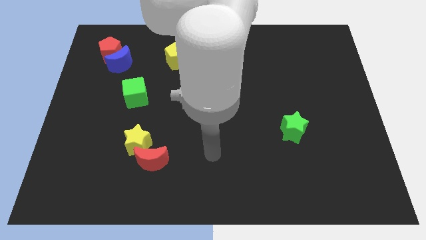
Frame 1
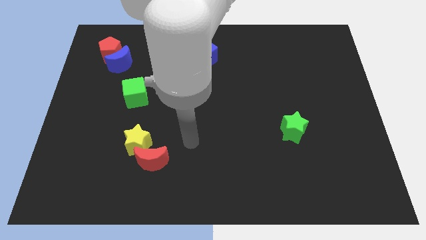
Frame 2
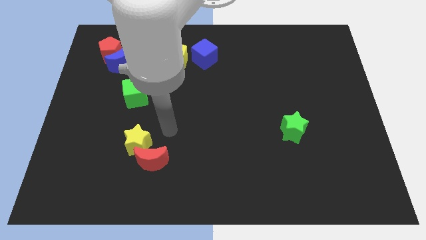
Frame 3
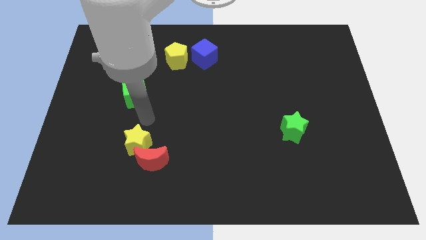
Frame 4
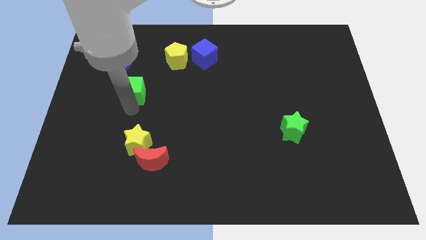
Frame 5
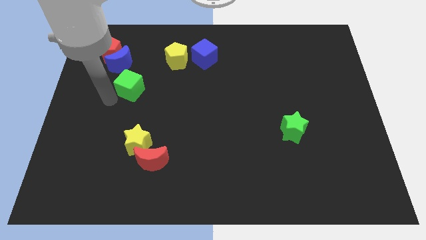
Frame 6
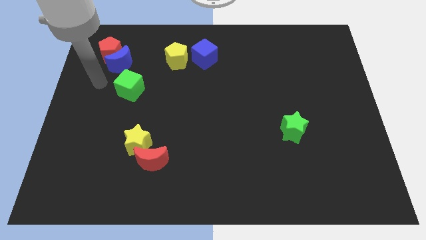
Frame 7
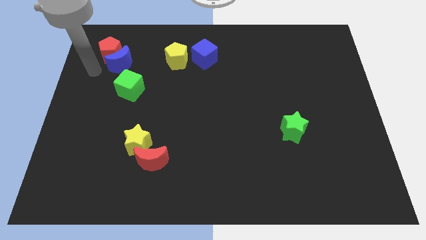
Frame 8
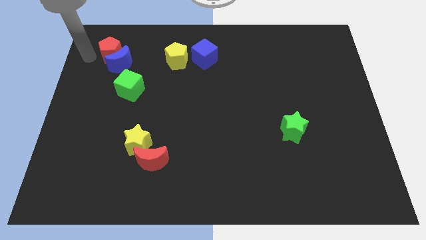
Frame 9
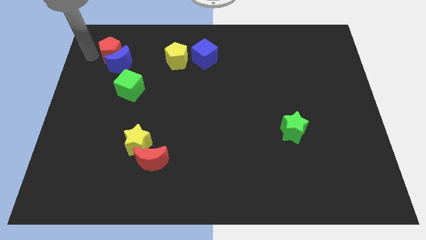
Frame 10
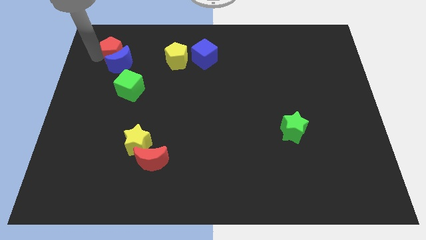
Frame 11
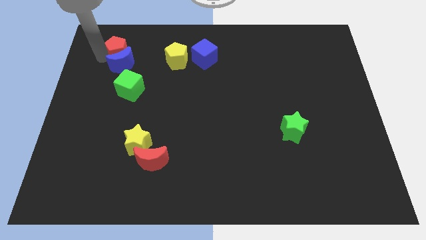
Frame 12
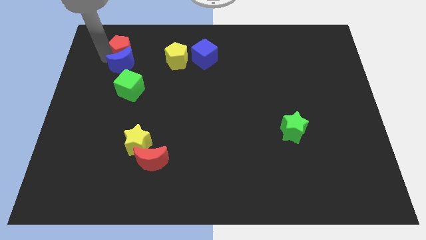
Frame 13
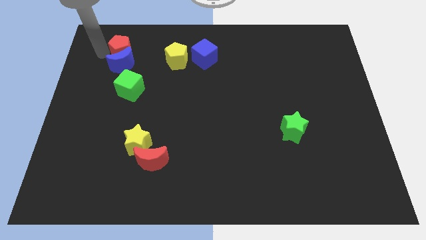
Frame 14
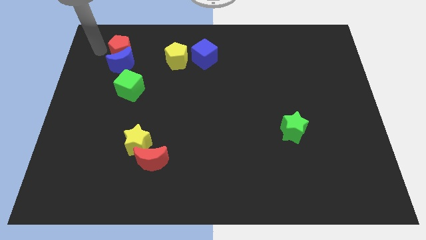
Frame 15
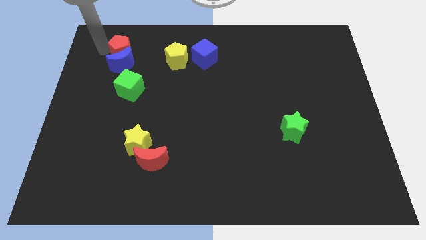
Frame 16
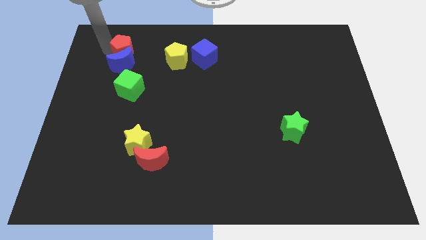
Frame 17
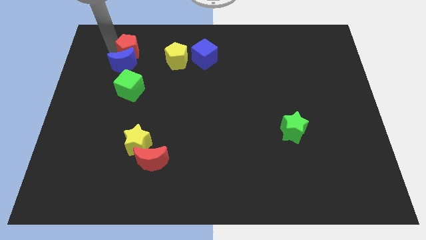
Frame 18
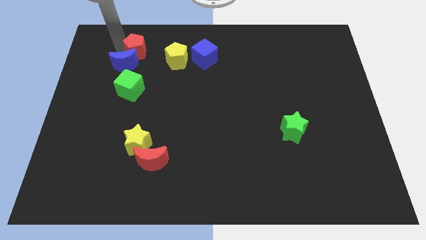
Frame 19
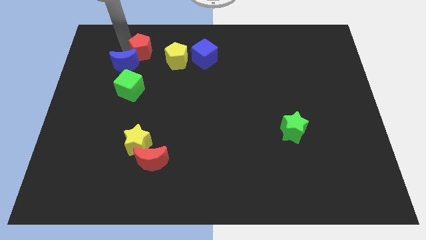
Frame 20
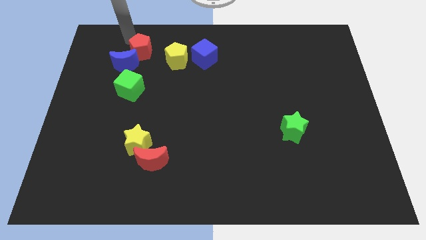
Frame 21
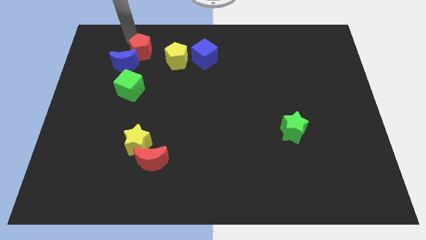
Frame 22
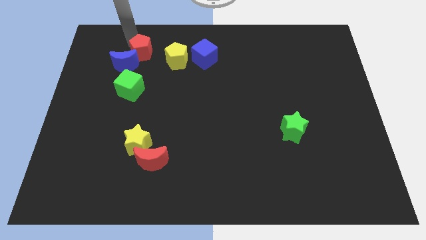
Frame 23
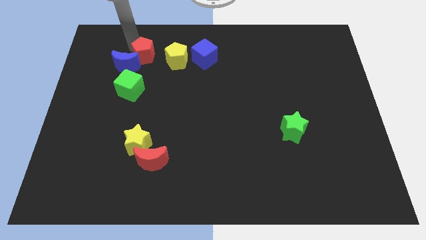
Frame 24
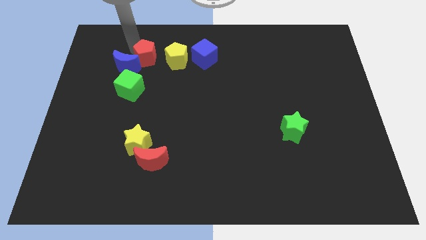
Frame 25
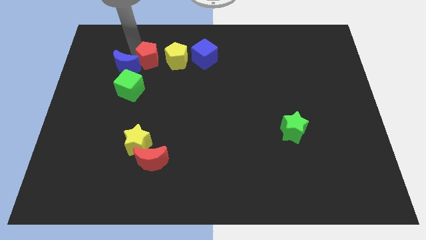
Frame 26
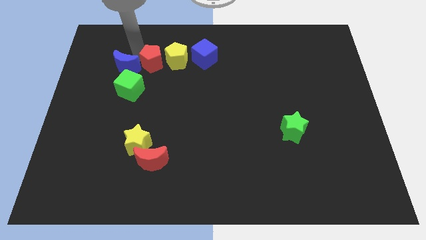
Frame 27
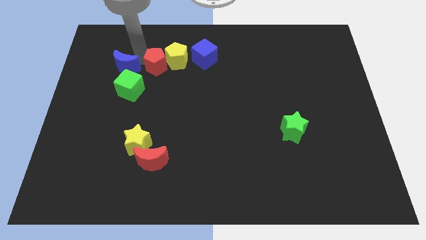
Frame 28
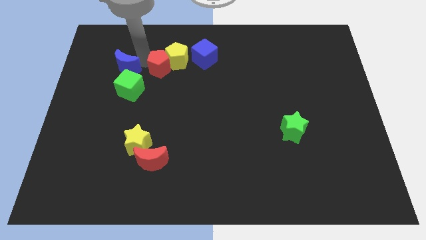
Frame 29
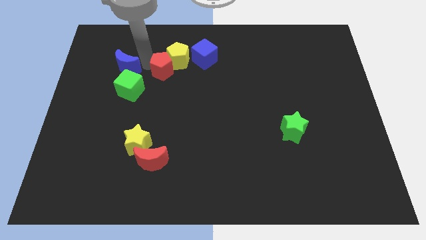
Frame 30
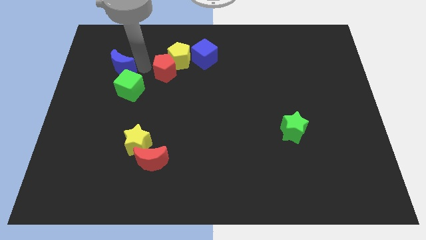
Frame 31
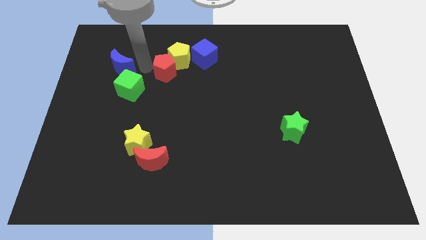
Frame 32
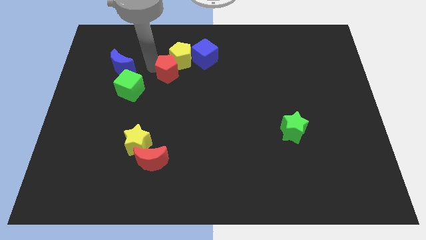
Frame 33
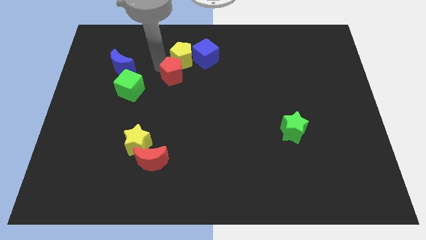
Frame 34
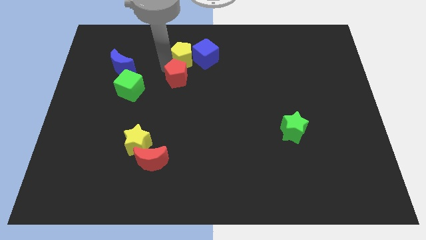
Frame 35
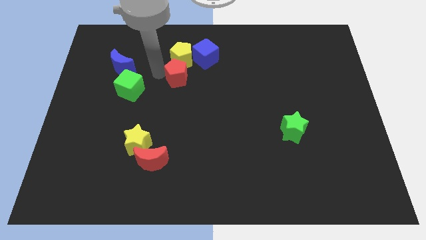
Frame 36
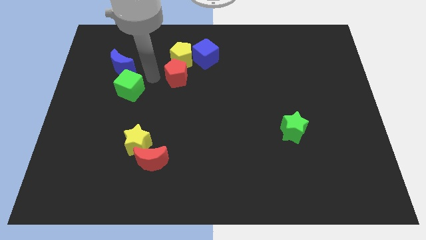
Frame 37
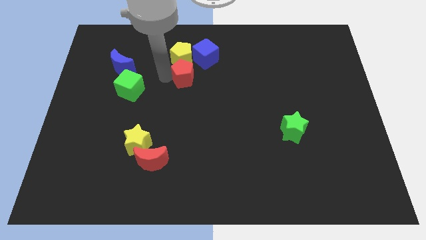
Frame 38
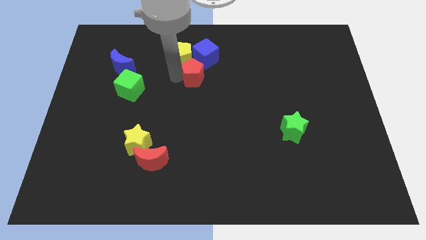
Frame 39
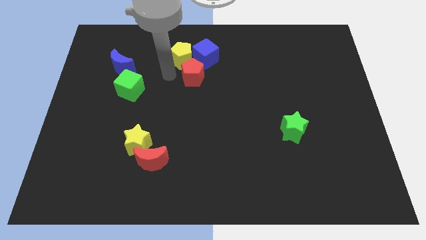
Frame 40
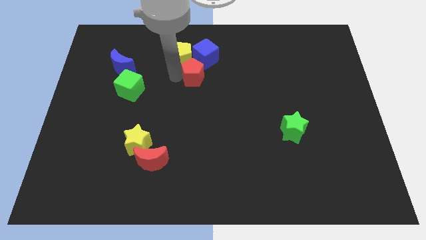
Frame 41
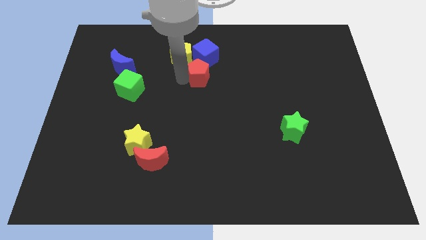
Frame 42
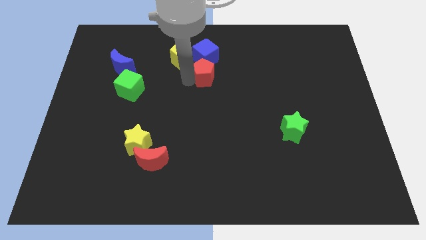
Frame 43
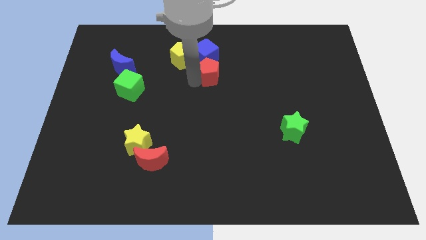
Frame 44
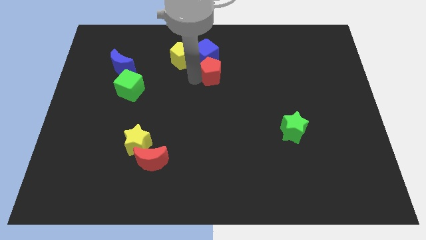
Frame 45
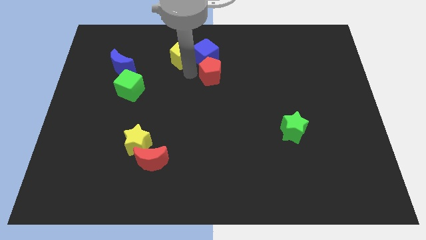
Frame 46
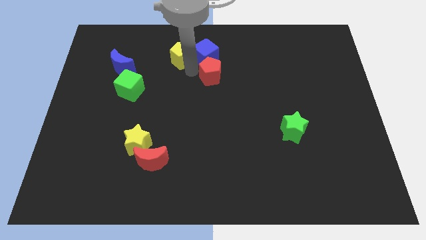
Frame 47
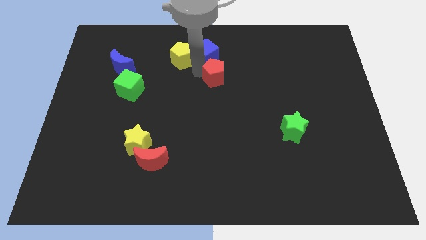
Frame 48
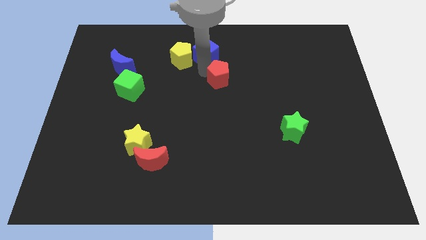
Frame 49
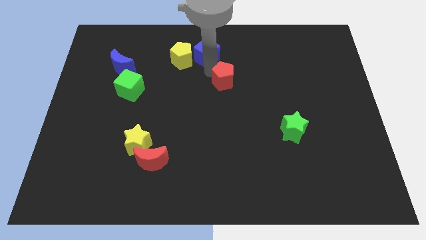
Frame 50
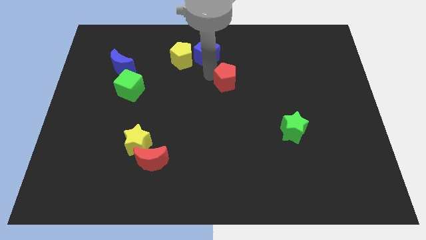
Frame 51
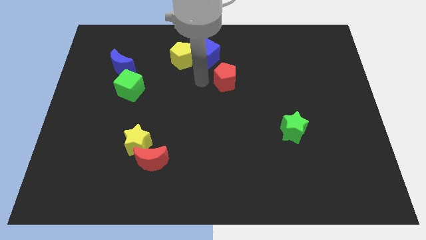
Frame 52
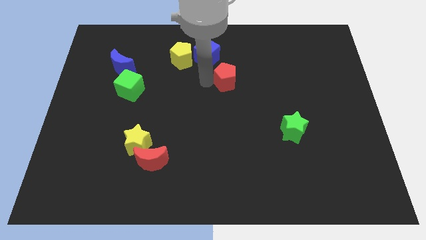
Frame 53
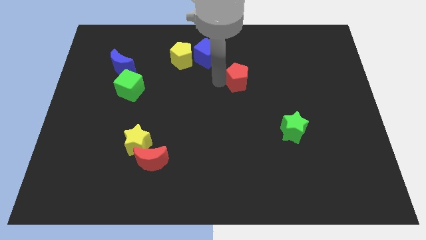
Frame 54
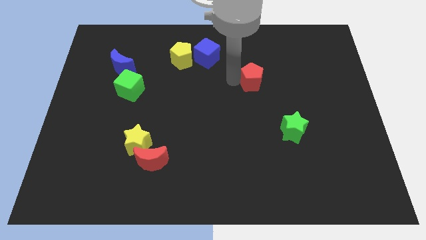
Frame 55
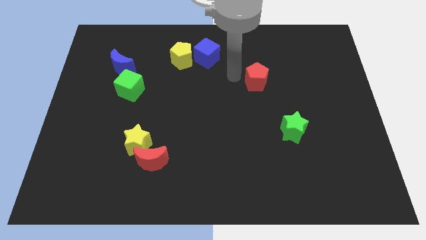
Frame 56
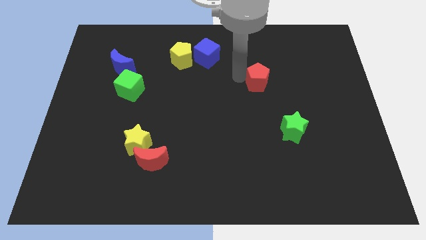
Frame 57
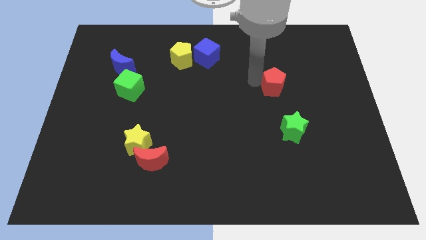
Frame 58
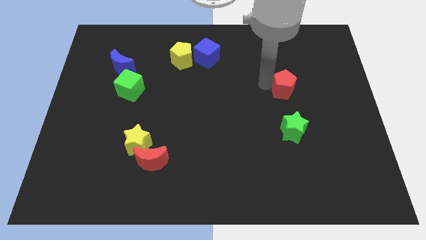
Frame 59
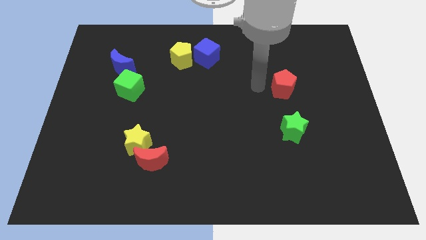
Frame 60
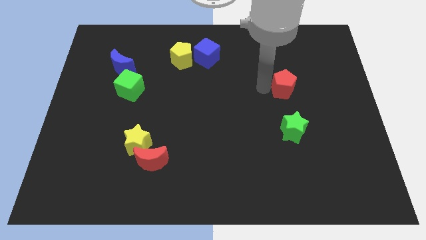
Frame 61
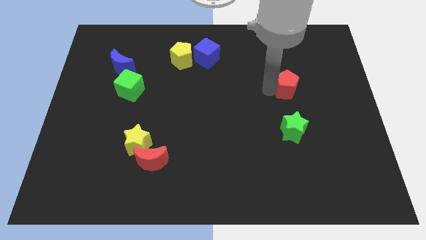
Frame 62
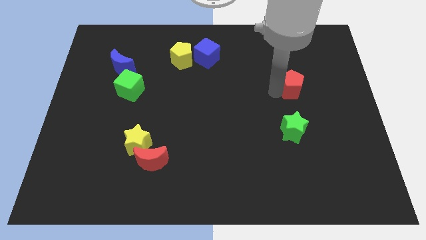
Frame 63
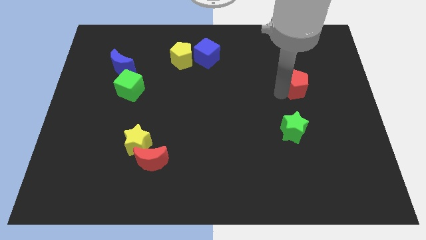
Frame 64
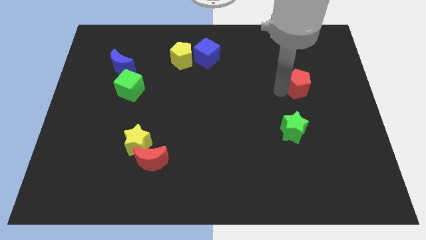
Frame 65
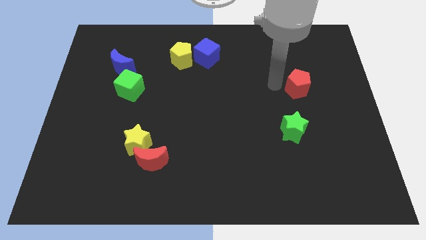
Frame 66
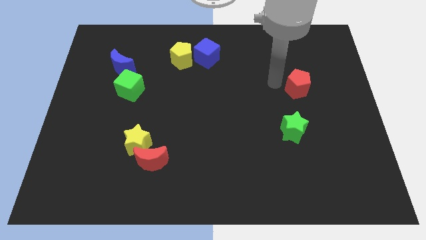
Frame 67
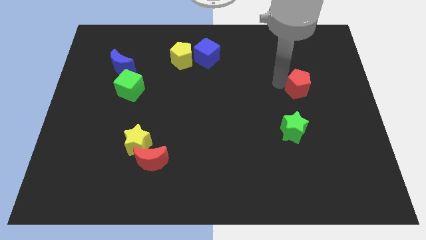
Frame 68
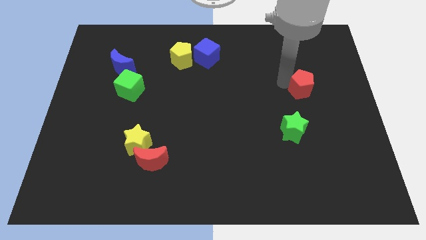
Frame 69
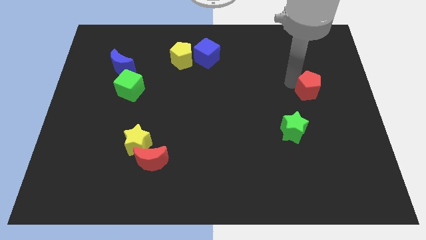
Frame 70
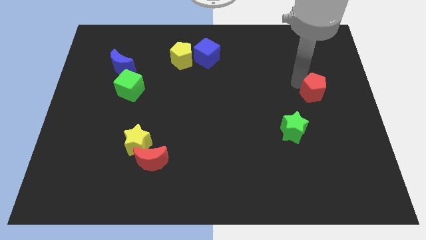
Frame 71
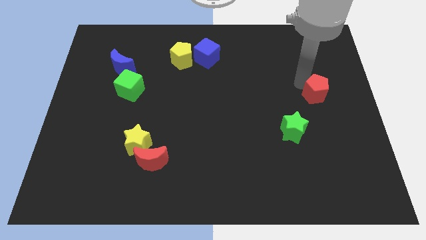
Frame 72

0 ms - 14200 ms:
slide the red pentagon to the center right

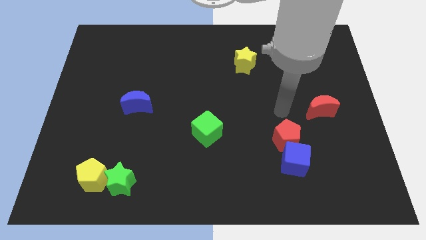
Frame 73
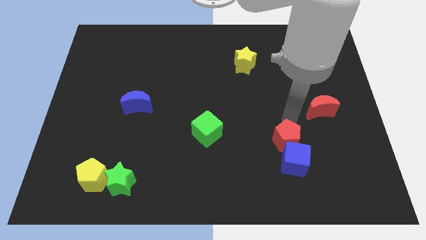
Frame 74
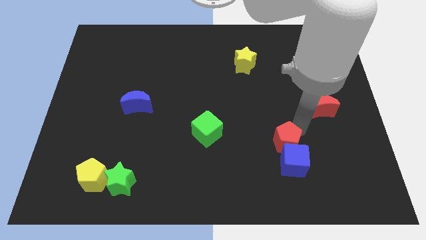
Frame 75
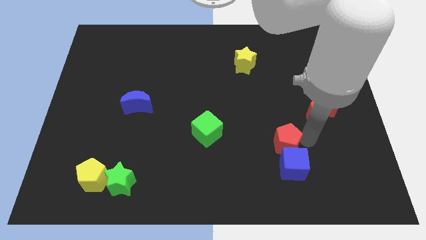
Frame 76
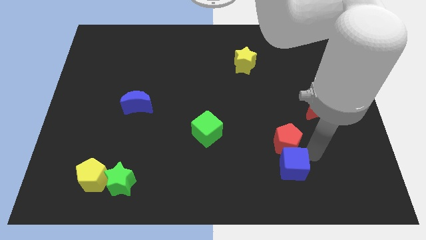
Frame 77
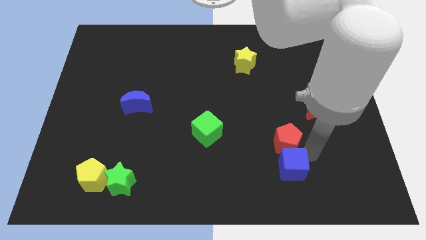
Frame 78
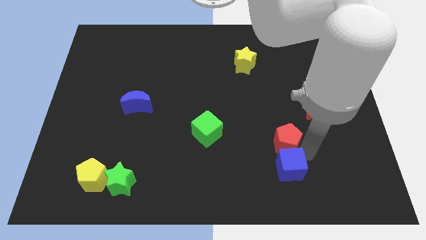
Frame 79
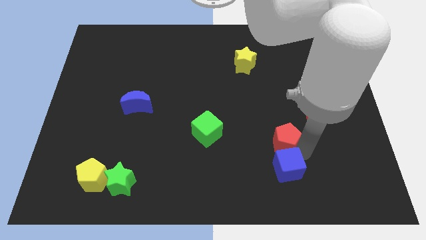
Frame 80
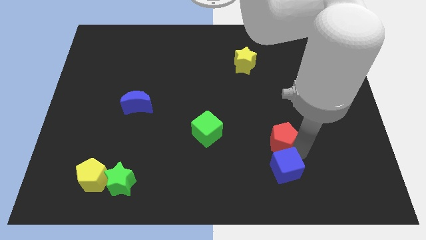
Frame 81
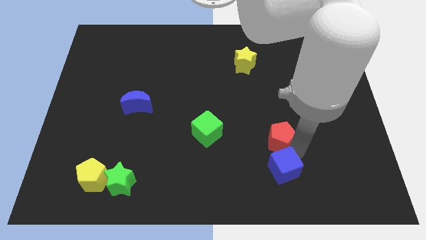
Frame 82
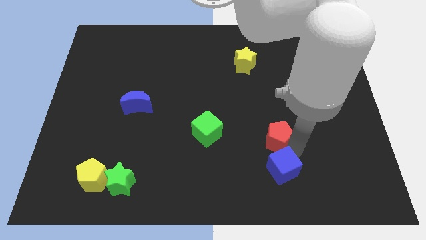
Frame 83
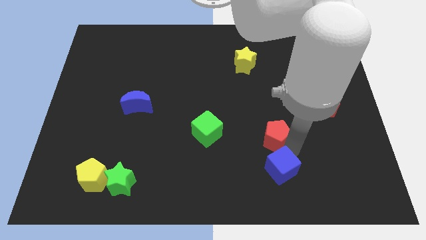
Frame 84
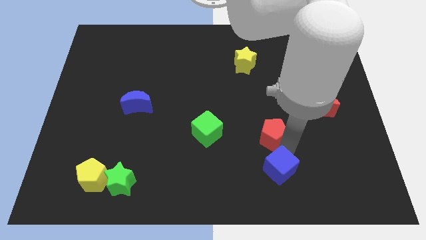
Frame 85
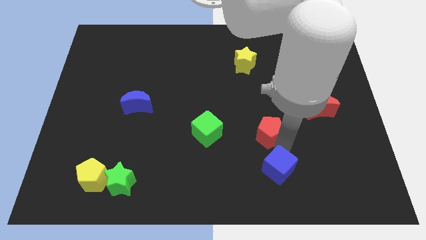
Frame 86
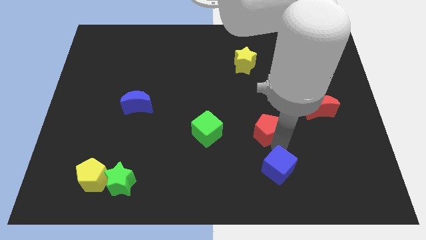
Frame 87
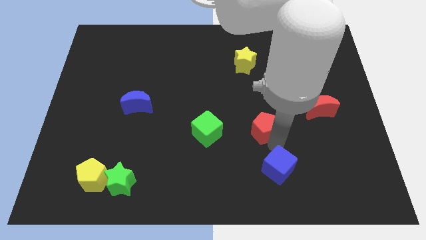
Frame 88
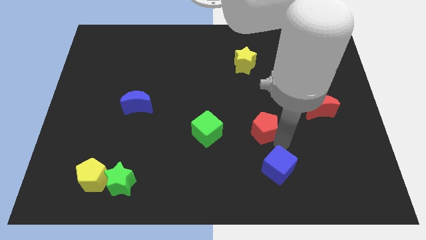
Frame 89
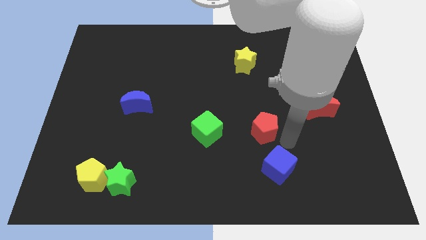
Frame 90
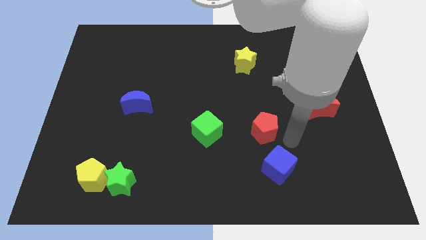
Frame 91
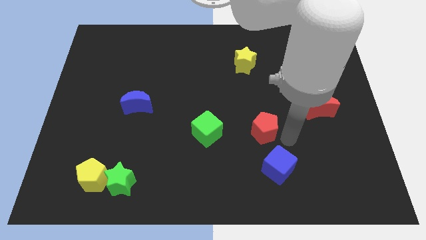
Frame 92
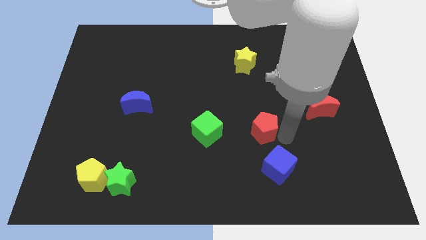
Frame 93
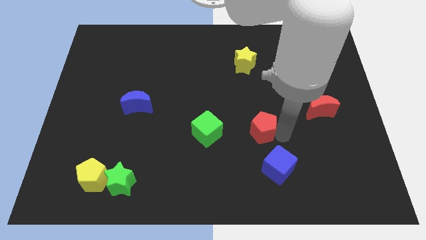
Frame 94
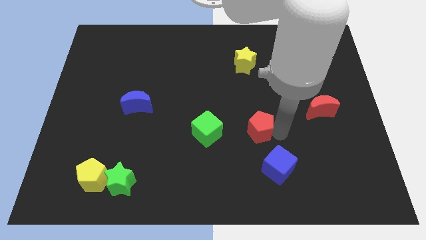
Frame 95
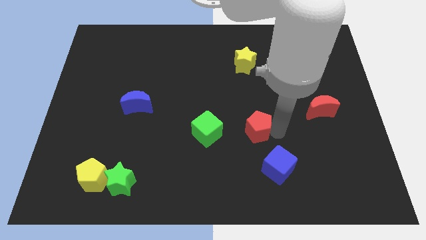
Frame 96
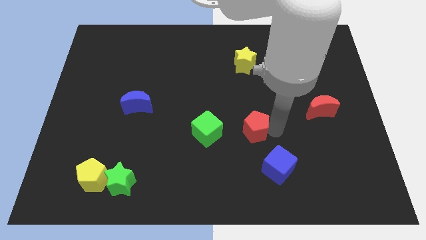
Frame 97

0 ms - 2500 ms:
push the red pentagon to the middle of the board
